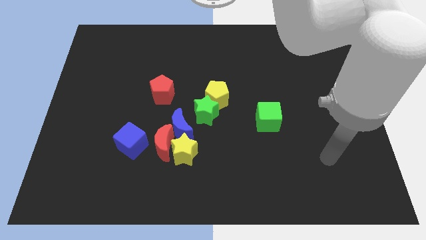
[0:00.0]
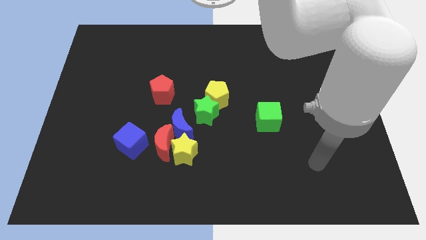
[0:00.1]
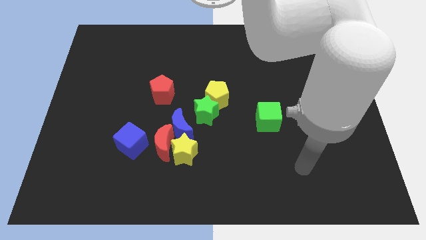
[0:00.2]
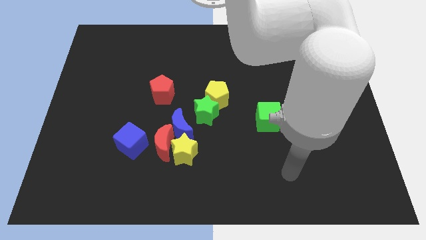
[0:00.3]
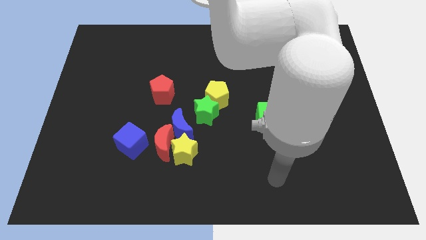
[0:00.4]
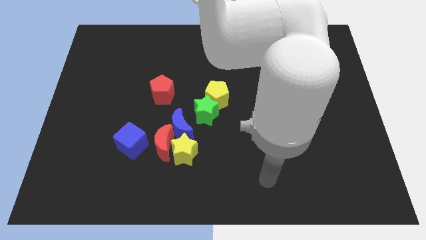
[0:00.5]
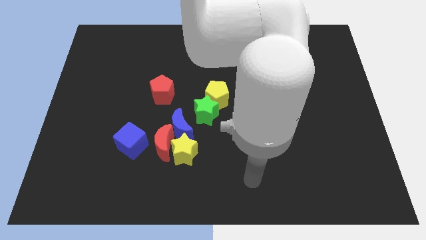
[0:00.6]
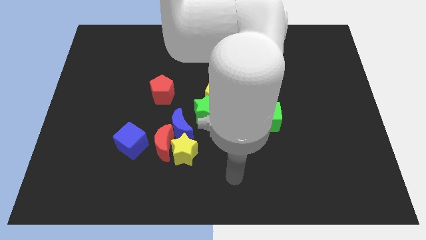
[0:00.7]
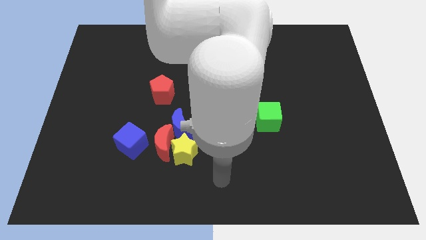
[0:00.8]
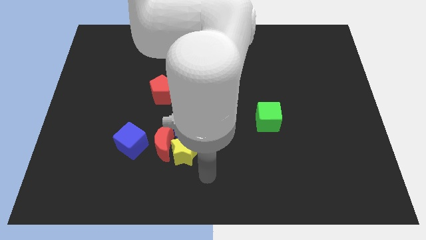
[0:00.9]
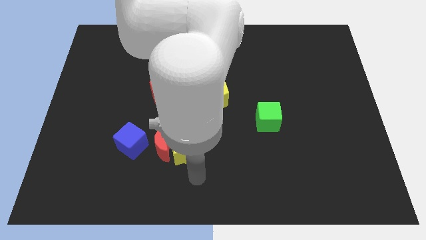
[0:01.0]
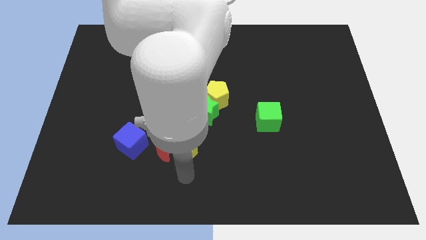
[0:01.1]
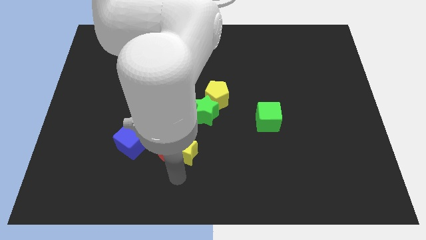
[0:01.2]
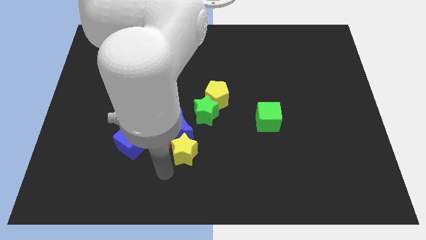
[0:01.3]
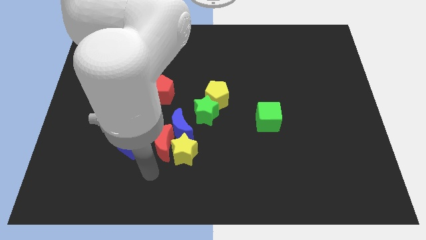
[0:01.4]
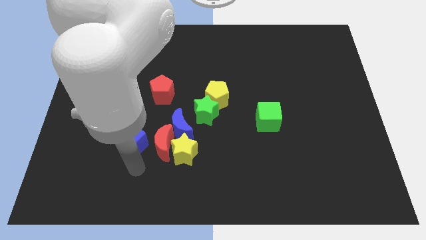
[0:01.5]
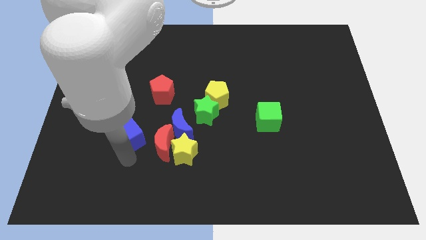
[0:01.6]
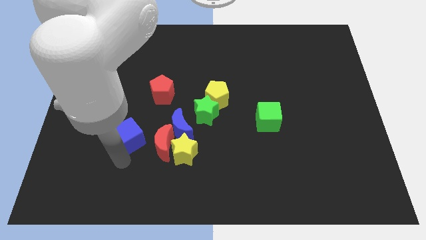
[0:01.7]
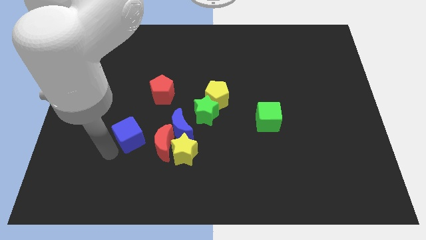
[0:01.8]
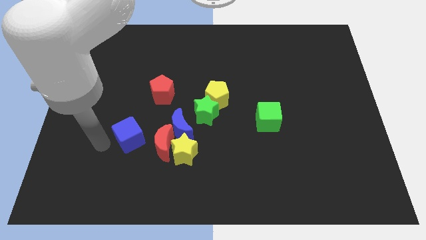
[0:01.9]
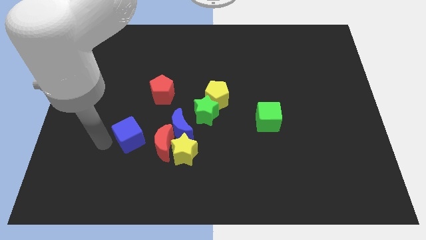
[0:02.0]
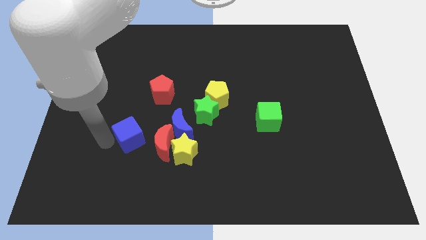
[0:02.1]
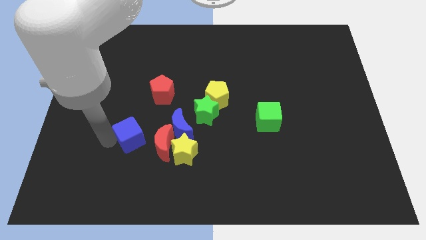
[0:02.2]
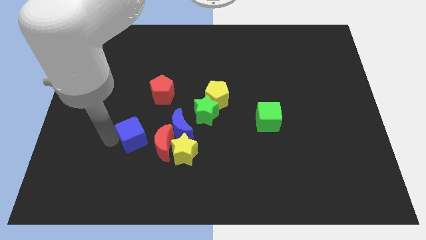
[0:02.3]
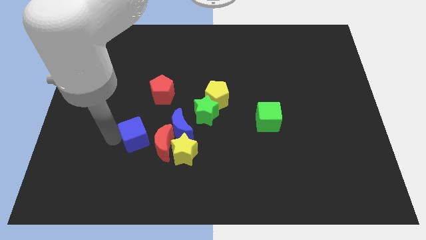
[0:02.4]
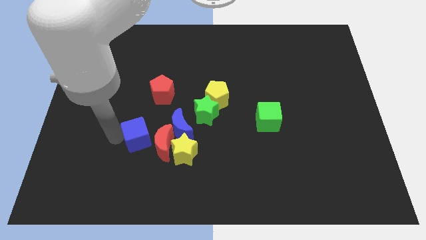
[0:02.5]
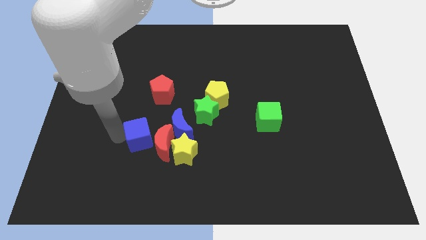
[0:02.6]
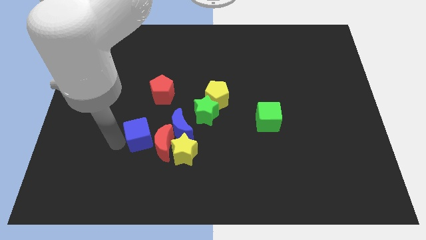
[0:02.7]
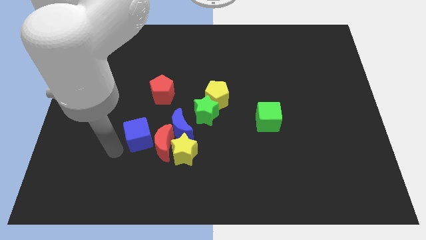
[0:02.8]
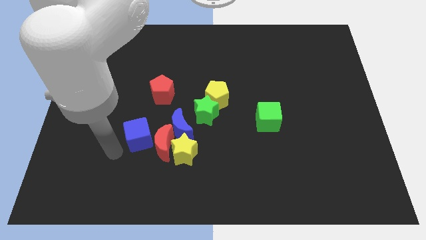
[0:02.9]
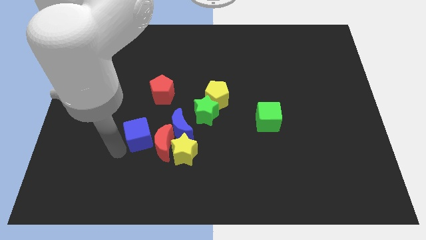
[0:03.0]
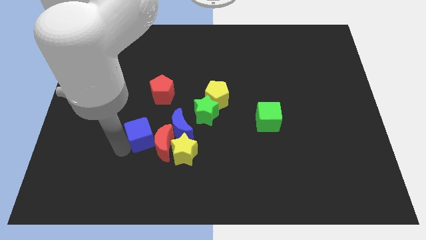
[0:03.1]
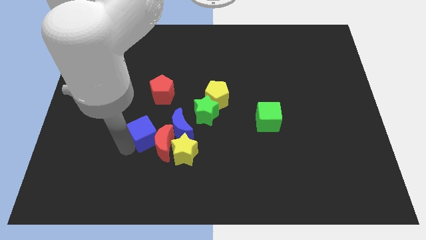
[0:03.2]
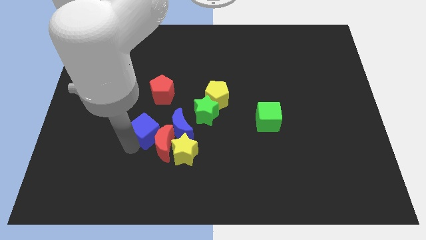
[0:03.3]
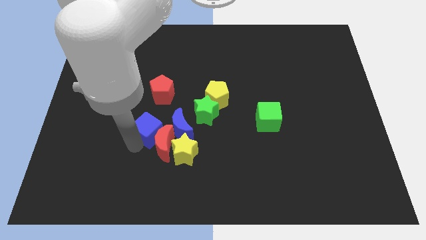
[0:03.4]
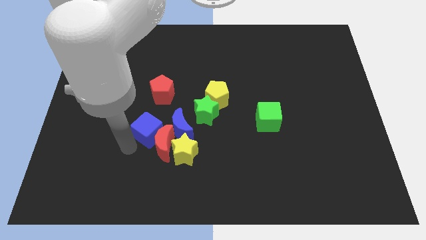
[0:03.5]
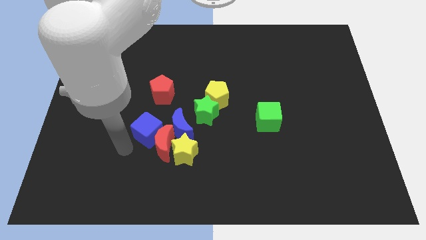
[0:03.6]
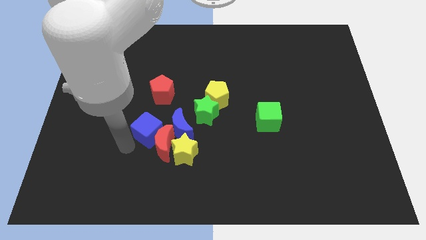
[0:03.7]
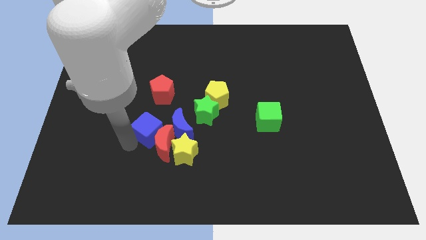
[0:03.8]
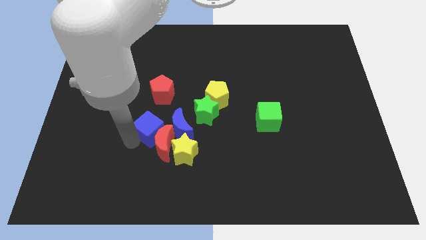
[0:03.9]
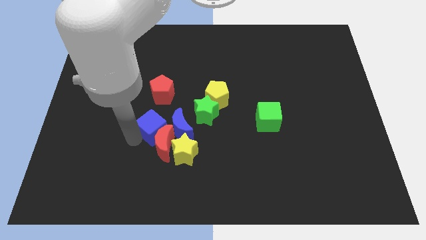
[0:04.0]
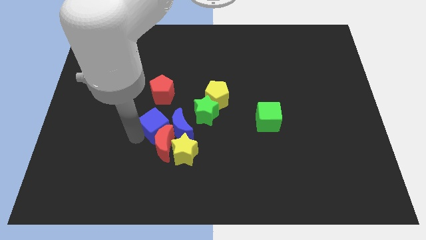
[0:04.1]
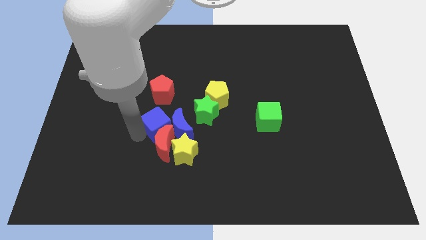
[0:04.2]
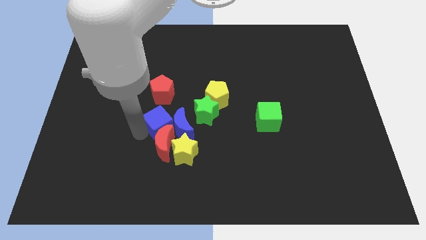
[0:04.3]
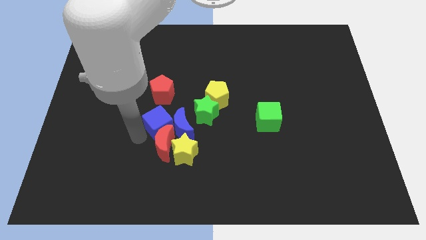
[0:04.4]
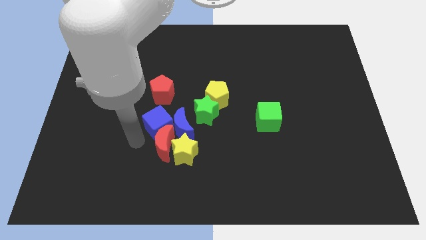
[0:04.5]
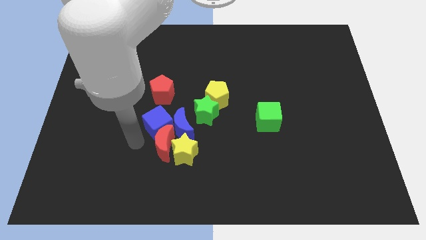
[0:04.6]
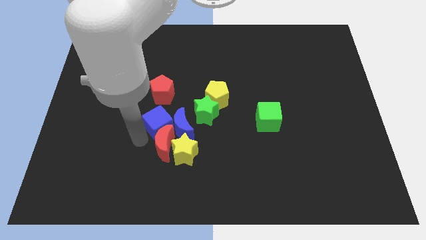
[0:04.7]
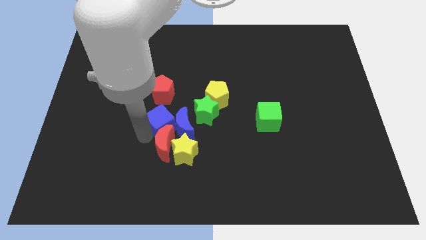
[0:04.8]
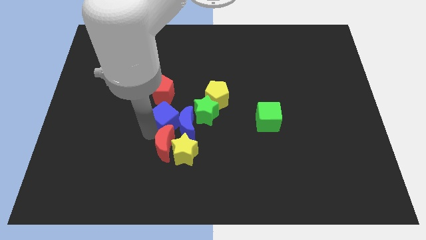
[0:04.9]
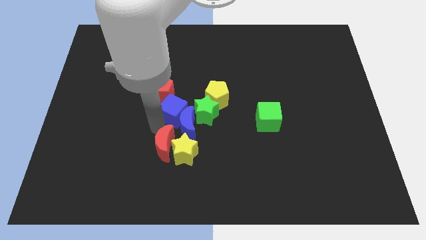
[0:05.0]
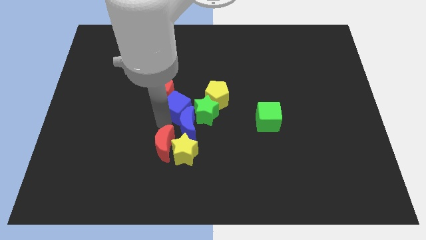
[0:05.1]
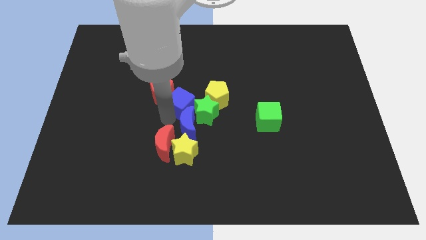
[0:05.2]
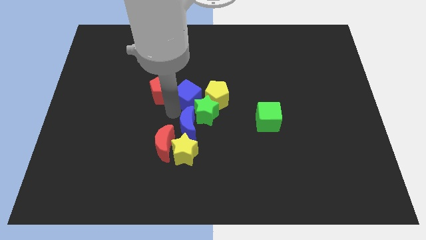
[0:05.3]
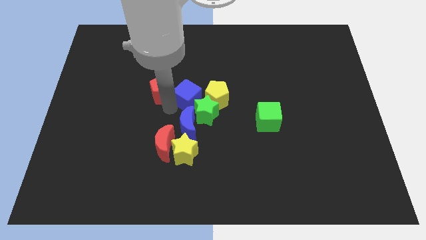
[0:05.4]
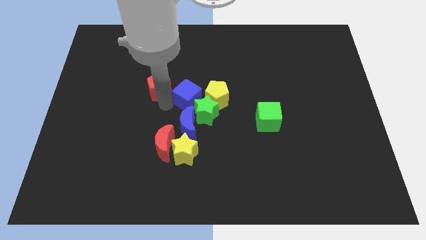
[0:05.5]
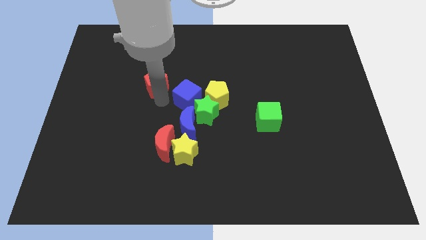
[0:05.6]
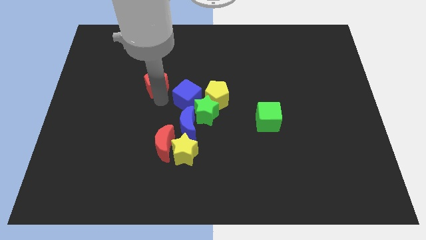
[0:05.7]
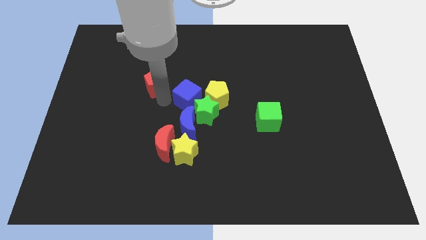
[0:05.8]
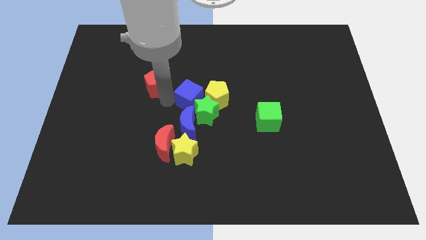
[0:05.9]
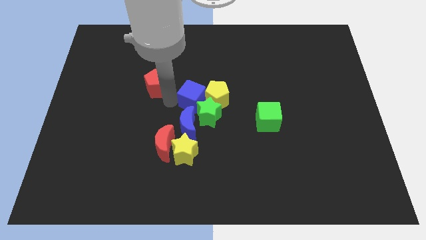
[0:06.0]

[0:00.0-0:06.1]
put the blue cube to the yellow pentagon
